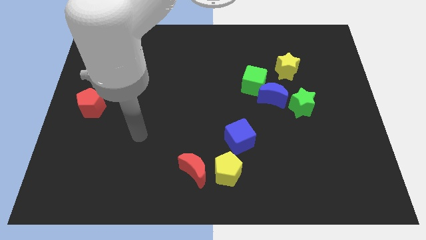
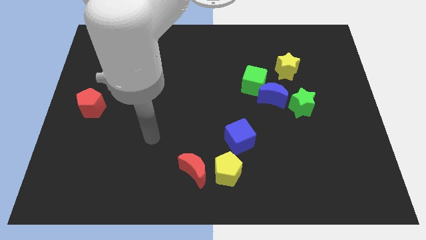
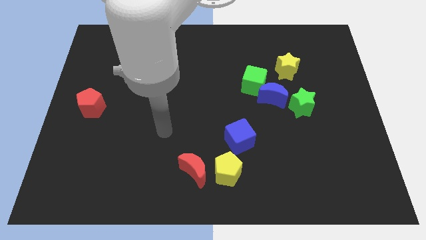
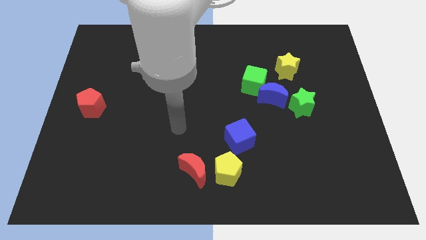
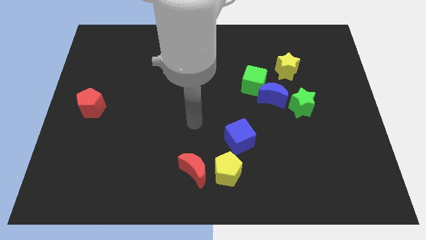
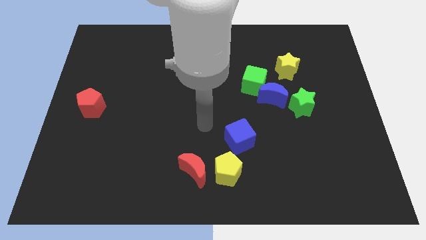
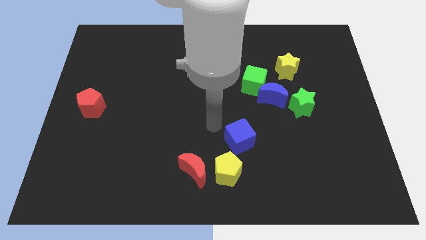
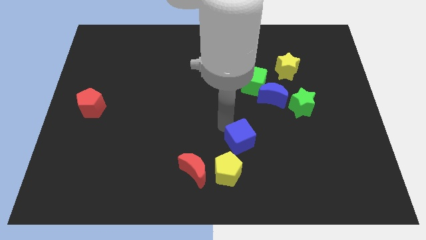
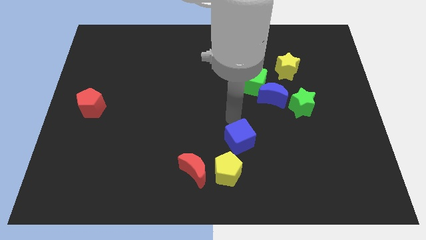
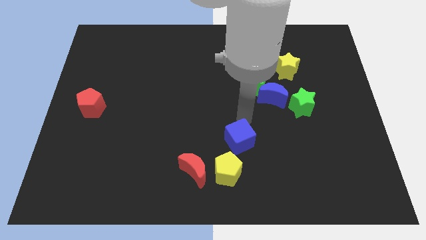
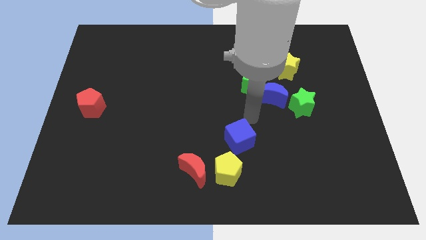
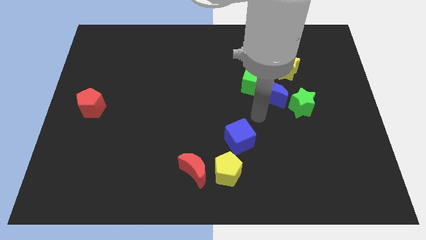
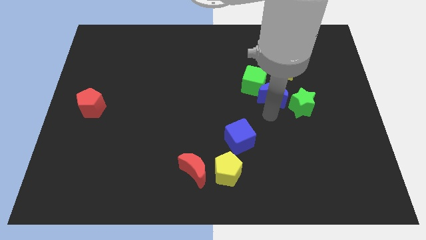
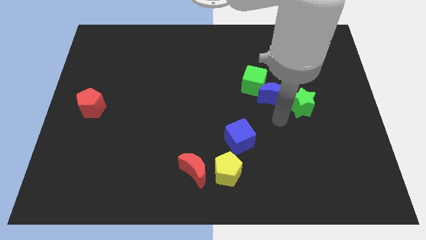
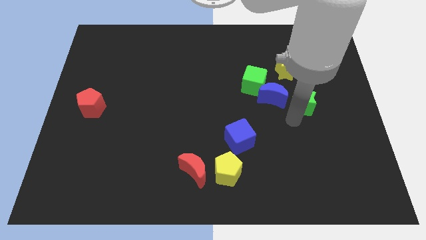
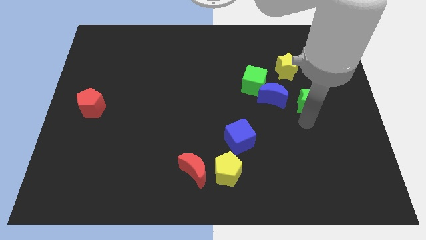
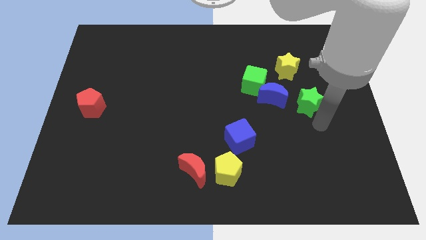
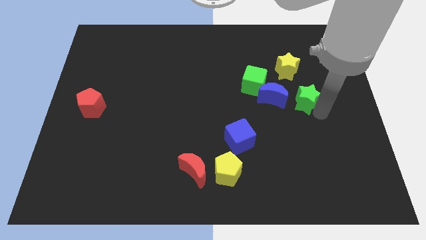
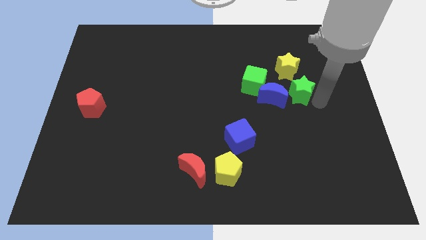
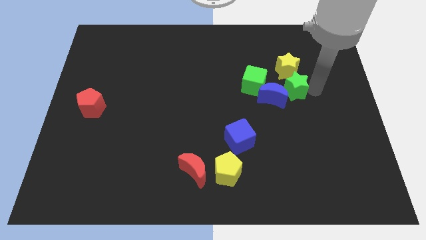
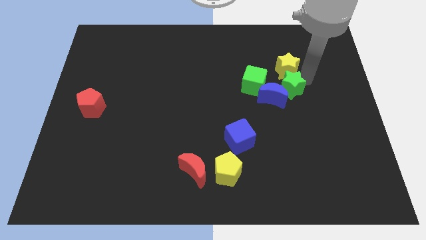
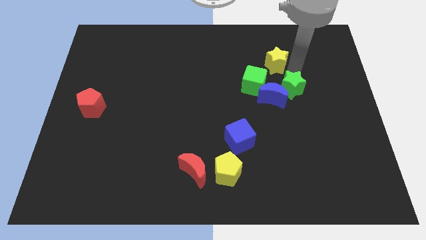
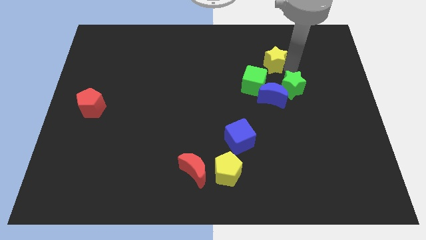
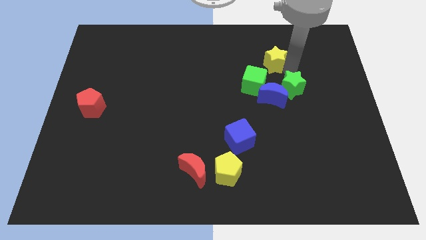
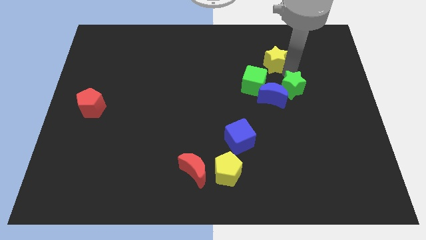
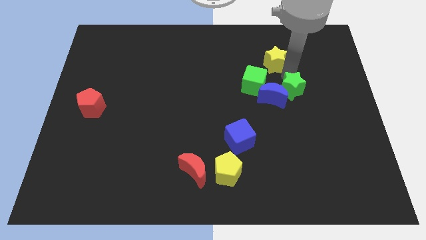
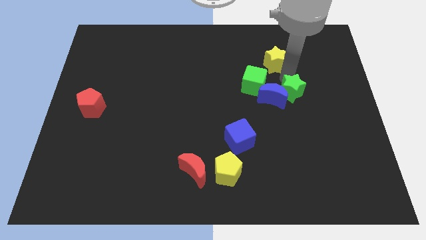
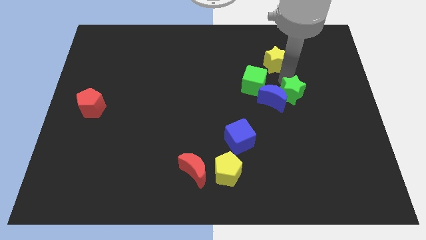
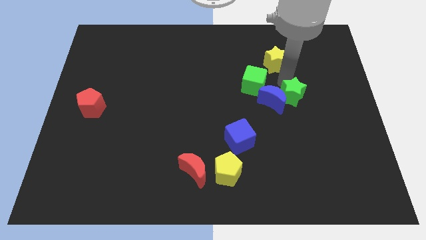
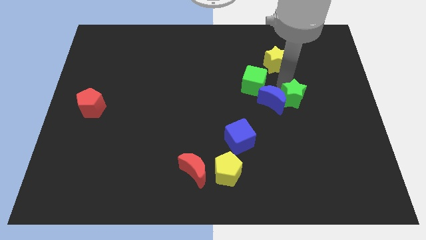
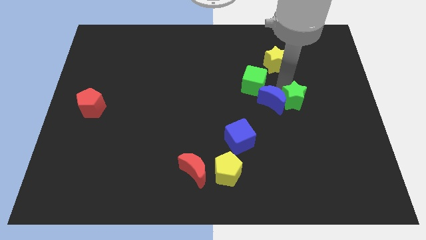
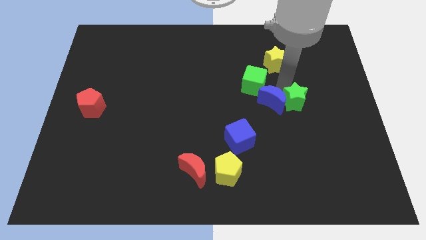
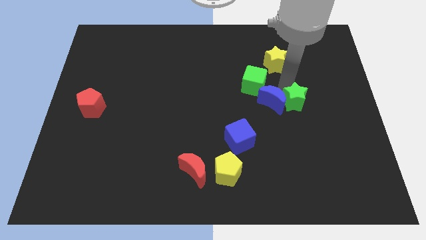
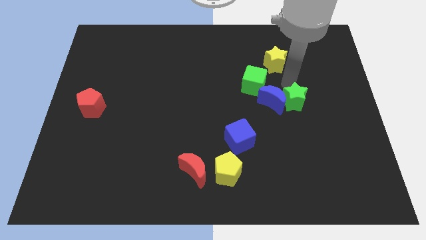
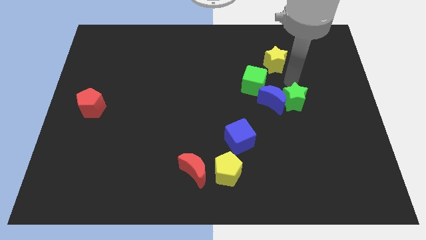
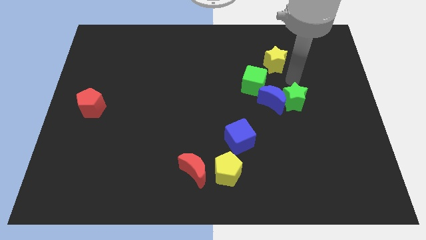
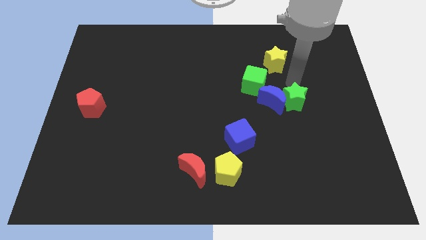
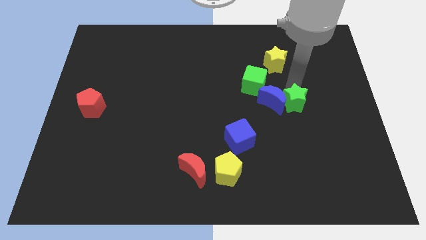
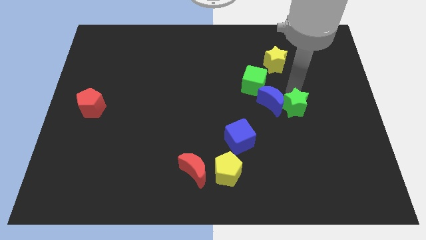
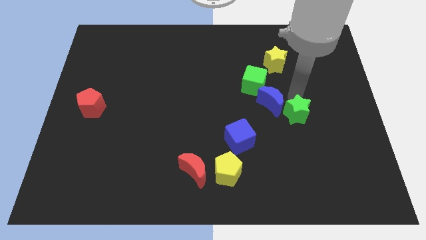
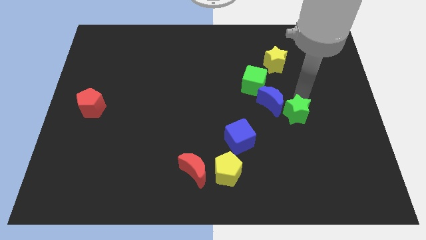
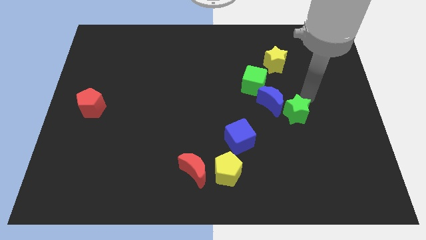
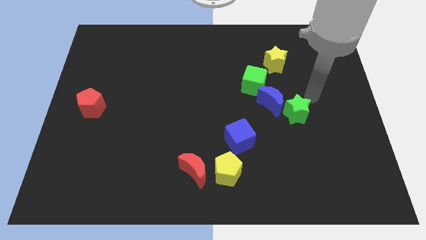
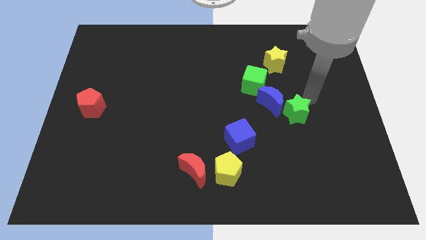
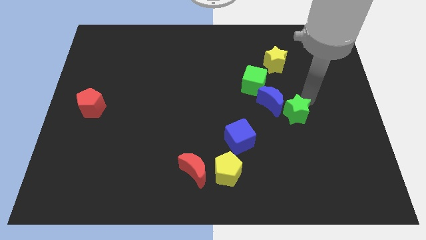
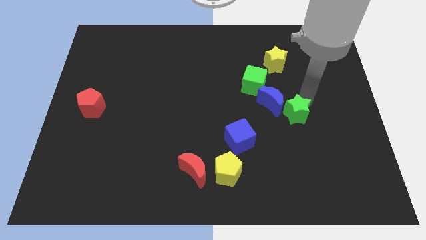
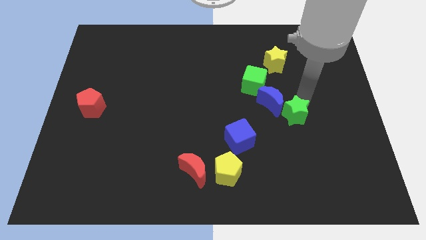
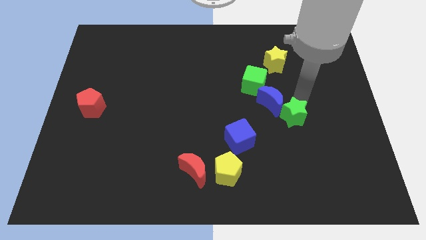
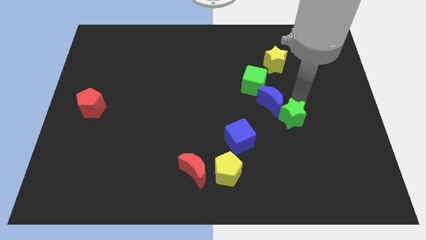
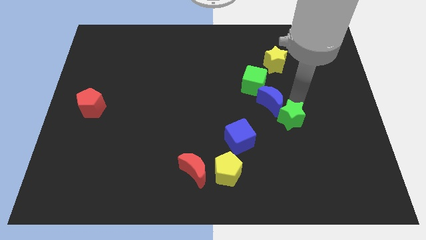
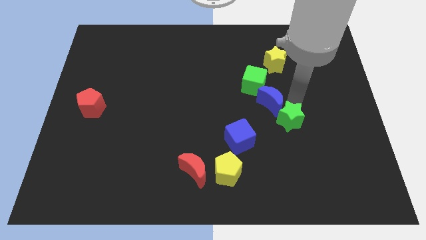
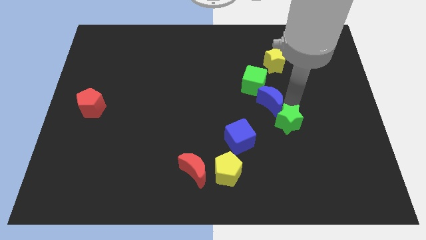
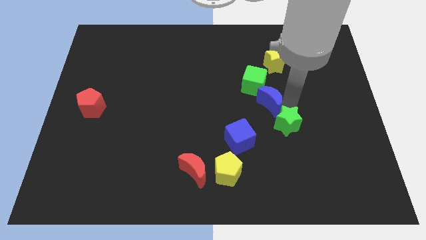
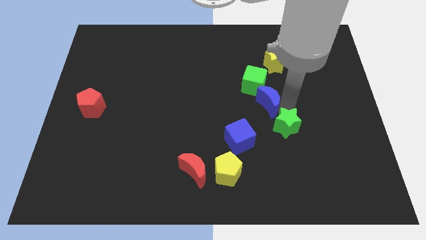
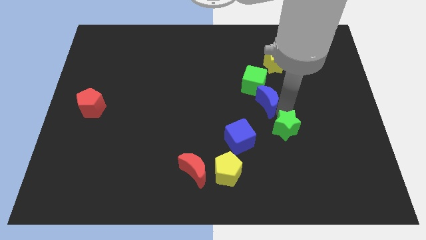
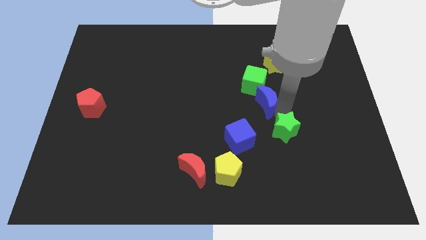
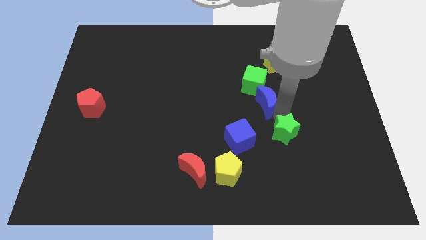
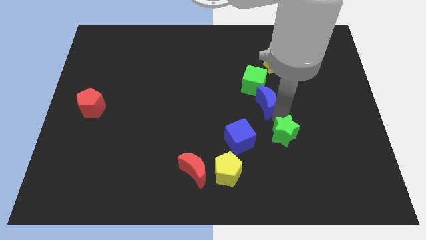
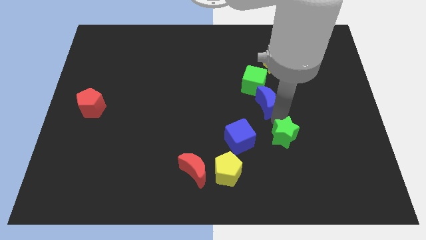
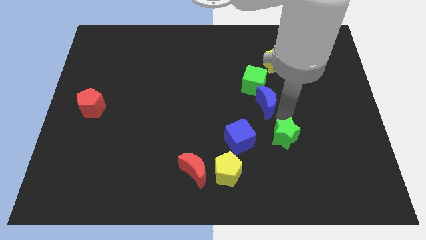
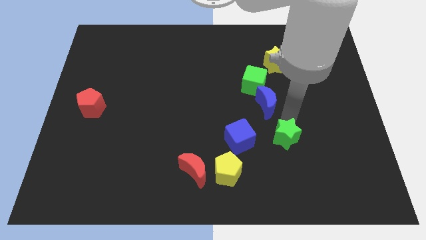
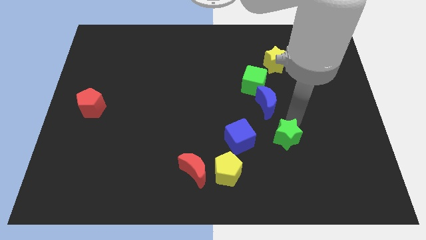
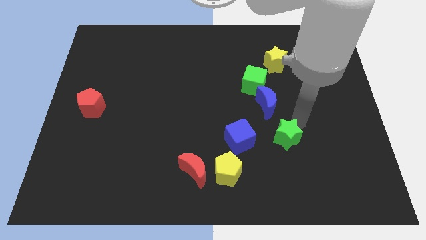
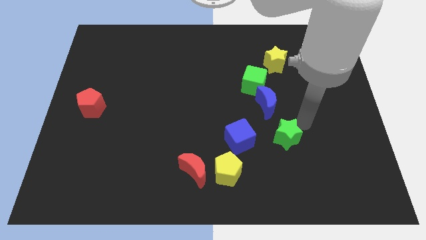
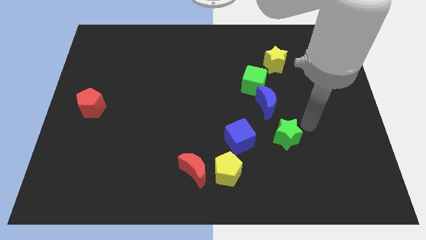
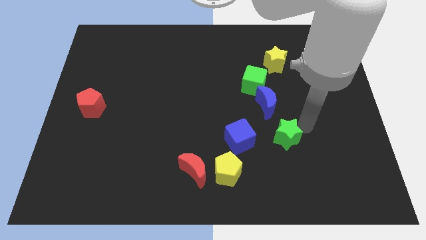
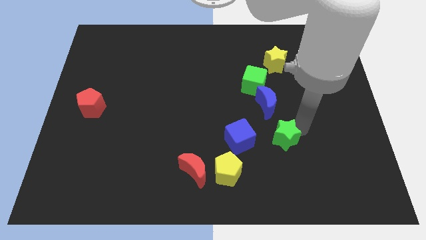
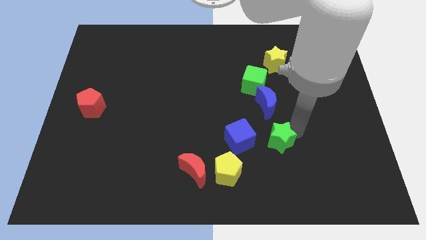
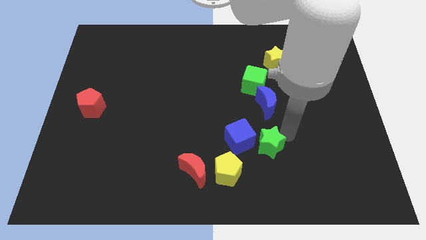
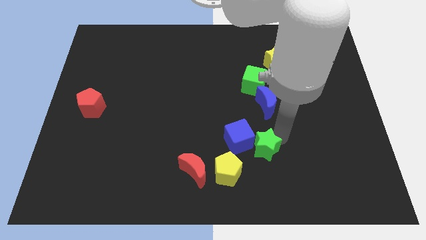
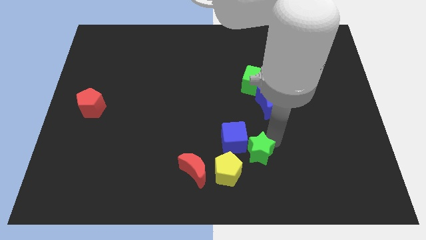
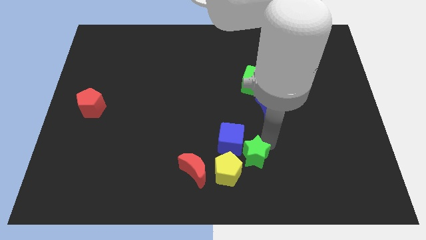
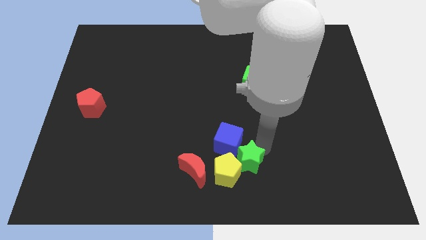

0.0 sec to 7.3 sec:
put the green star towards the yellow pentagon
